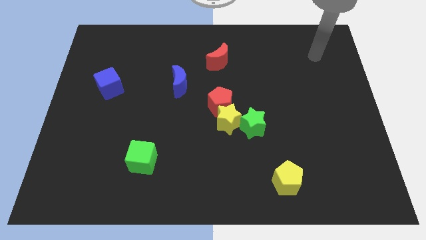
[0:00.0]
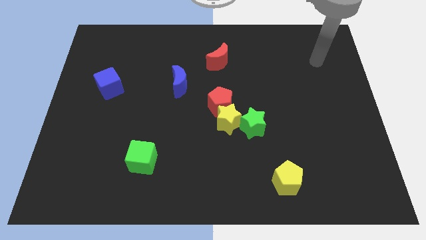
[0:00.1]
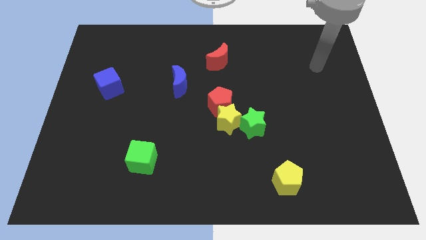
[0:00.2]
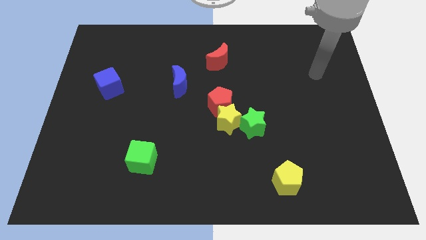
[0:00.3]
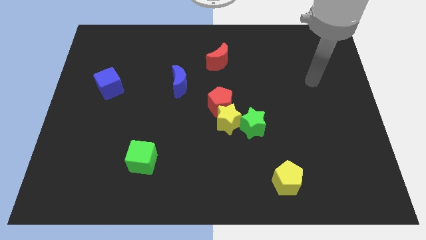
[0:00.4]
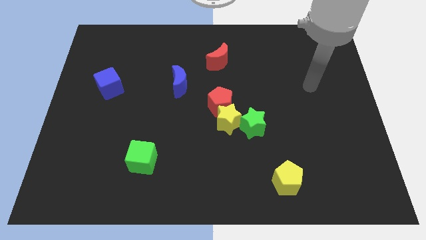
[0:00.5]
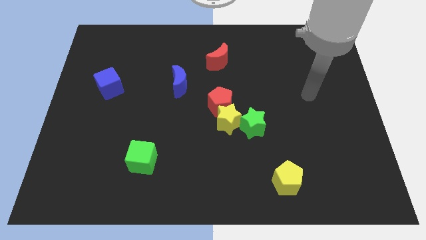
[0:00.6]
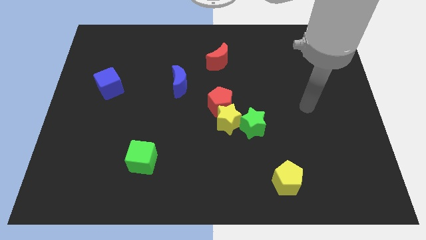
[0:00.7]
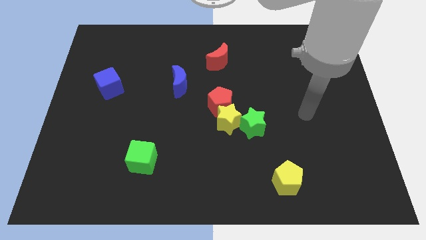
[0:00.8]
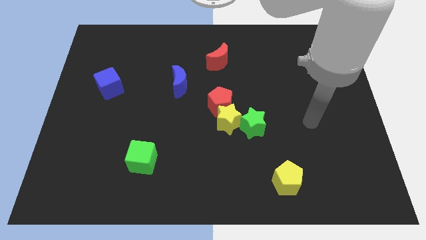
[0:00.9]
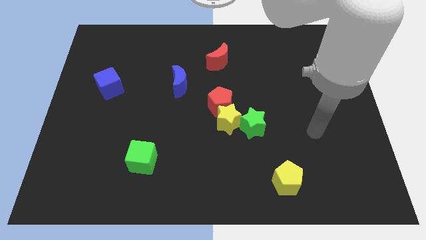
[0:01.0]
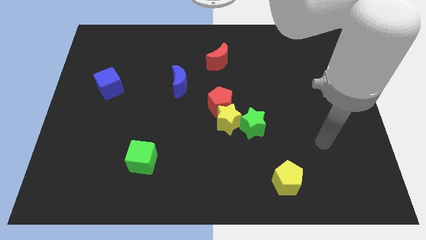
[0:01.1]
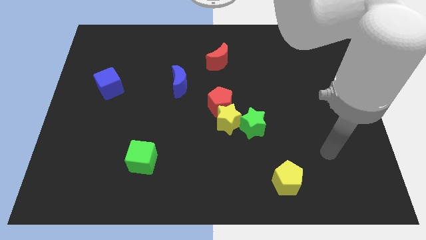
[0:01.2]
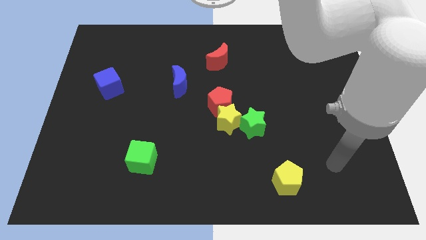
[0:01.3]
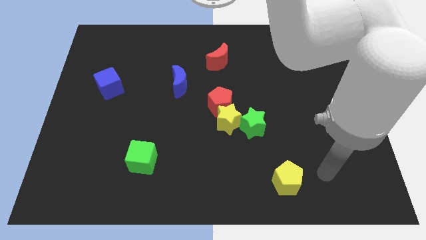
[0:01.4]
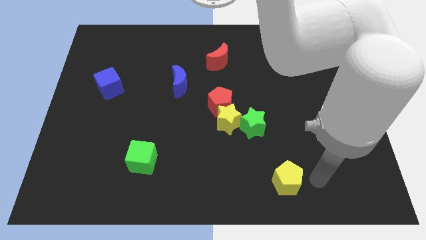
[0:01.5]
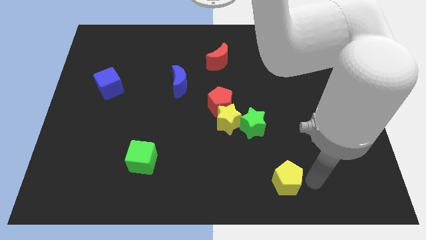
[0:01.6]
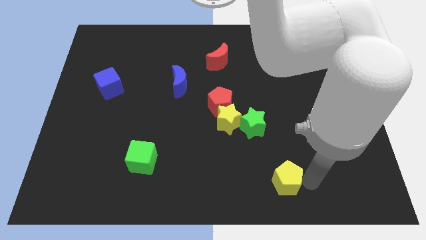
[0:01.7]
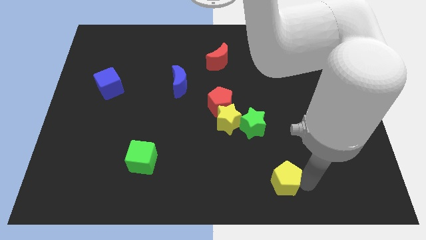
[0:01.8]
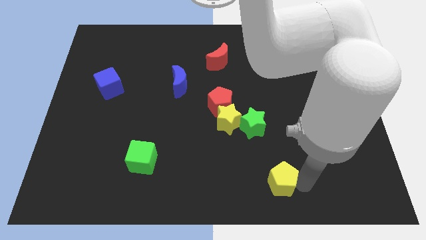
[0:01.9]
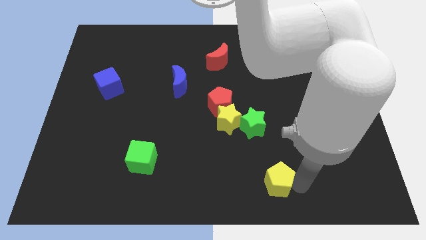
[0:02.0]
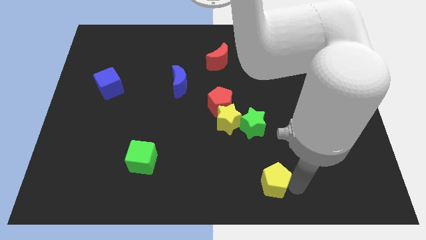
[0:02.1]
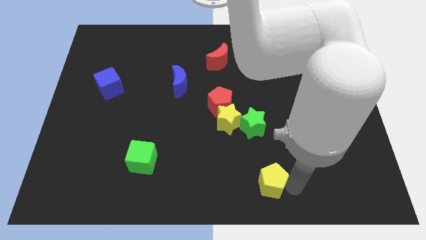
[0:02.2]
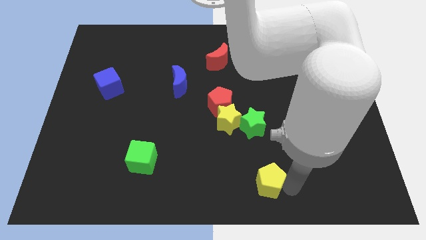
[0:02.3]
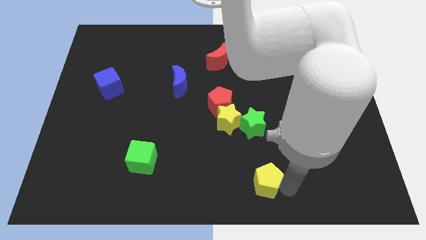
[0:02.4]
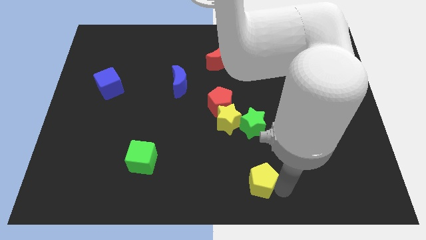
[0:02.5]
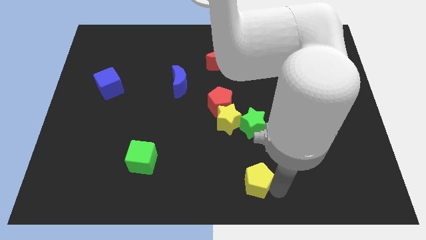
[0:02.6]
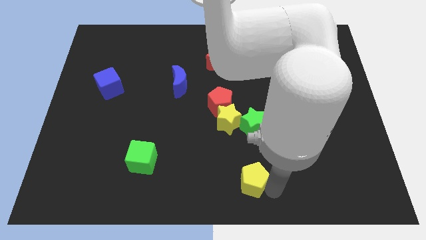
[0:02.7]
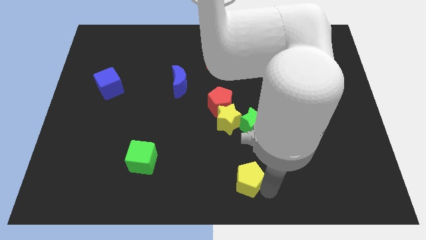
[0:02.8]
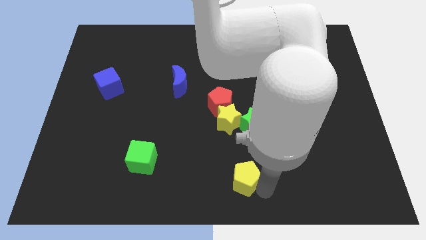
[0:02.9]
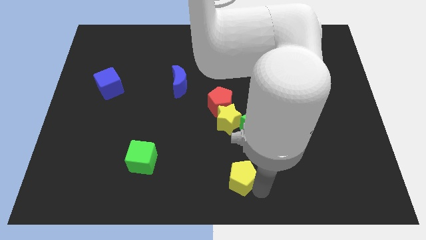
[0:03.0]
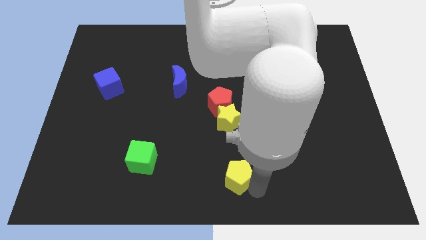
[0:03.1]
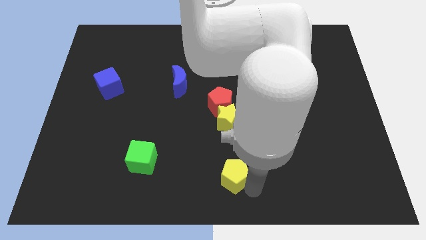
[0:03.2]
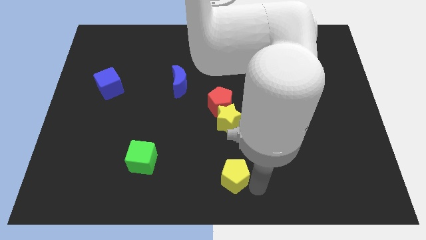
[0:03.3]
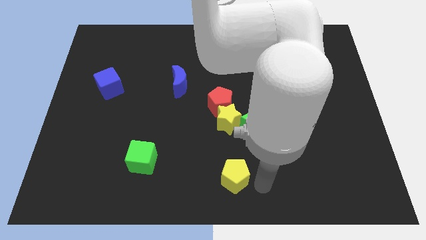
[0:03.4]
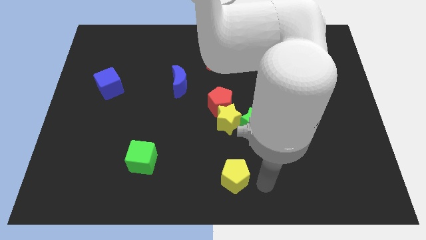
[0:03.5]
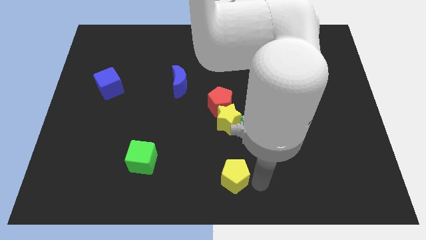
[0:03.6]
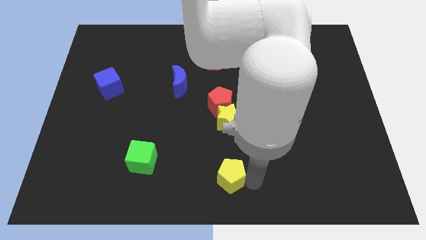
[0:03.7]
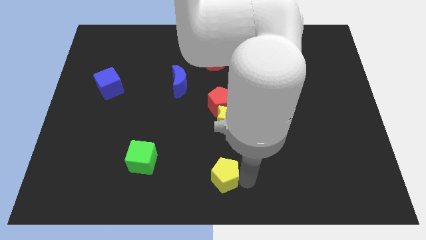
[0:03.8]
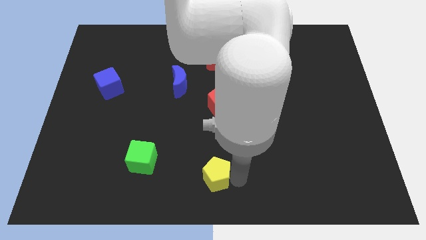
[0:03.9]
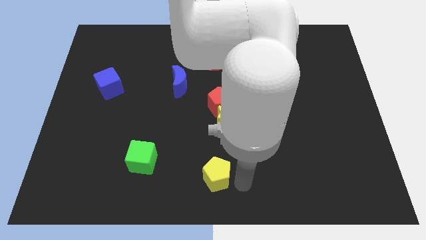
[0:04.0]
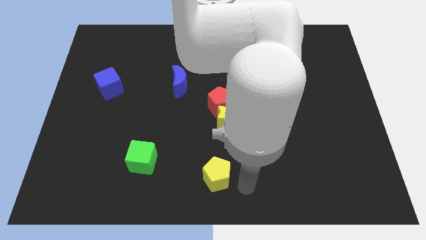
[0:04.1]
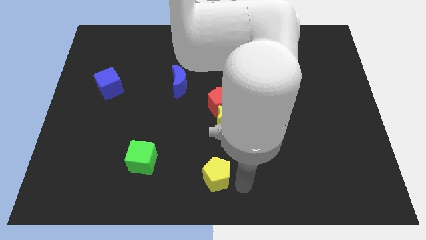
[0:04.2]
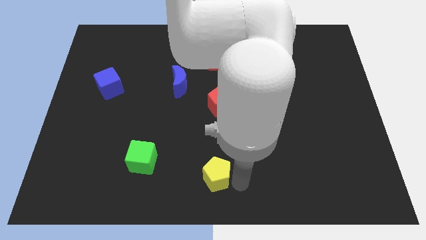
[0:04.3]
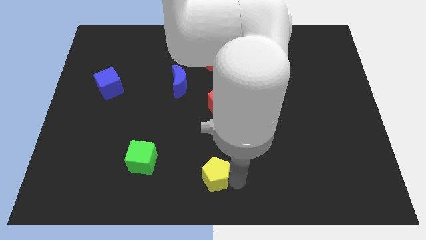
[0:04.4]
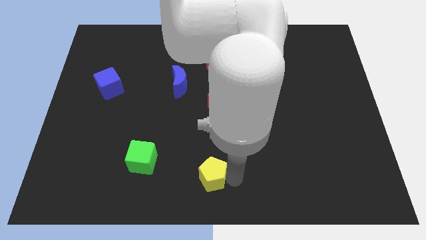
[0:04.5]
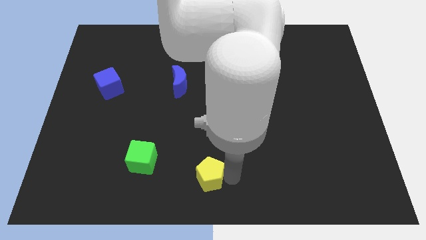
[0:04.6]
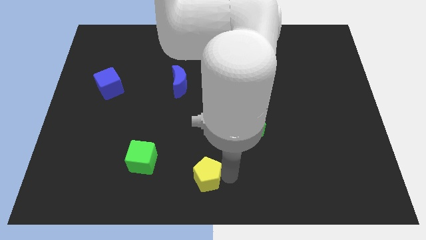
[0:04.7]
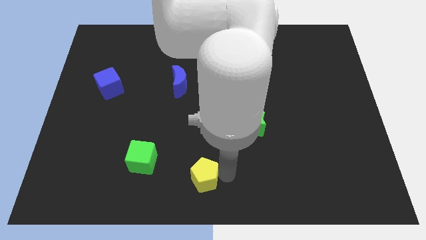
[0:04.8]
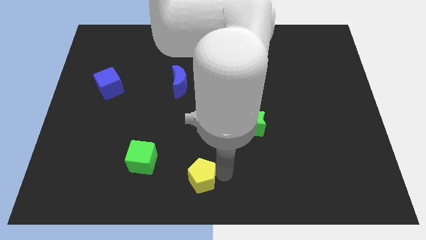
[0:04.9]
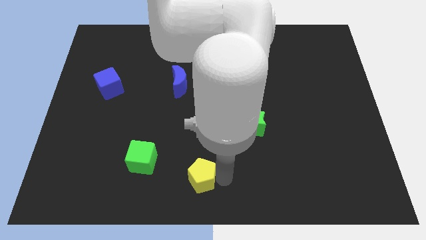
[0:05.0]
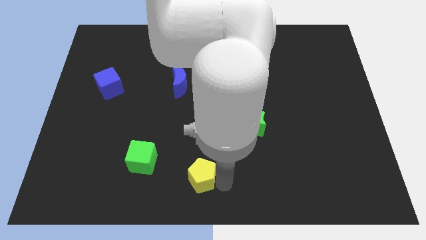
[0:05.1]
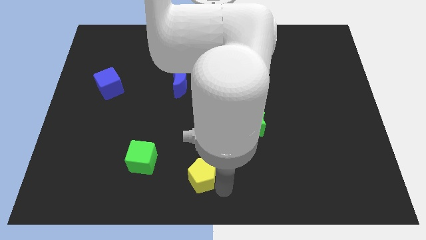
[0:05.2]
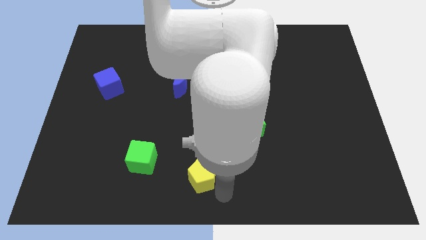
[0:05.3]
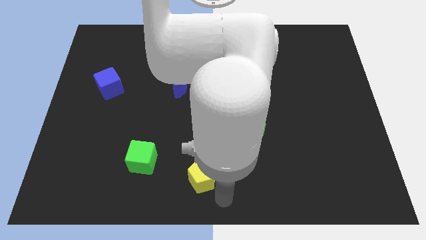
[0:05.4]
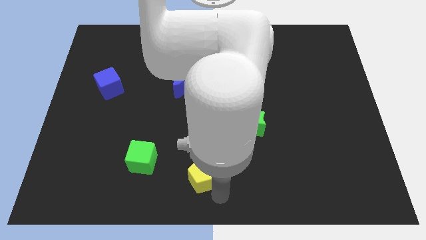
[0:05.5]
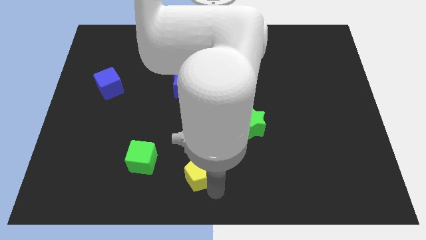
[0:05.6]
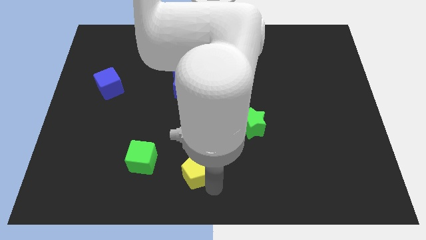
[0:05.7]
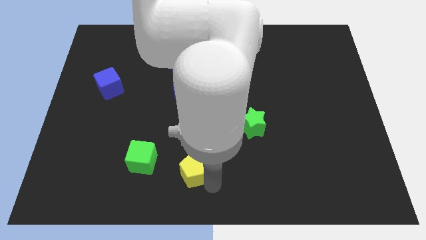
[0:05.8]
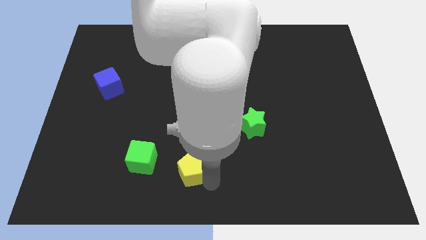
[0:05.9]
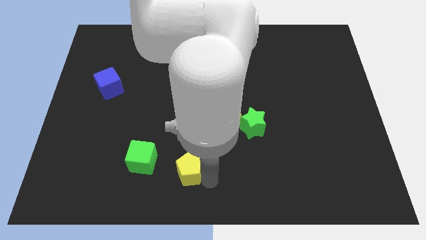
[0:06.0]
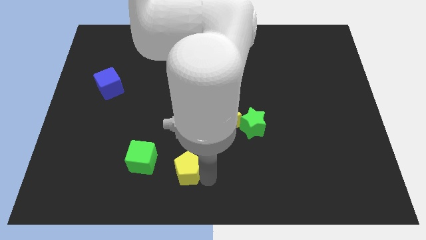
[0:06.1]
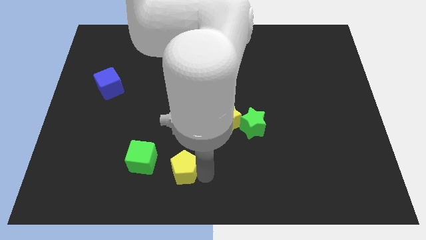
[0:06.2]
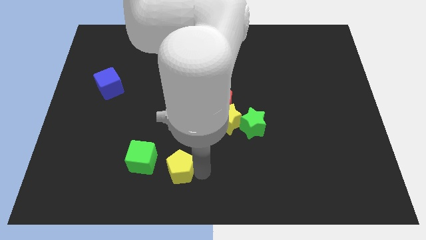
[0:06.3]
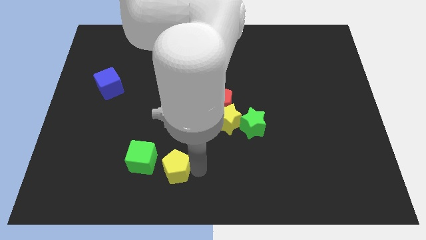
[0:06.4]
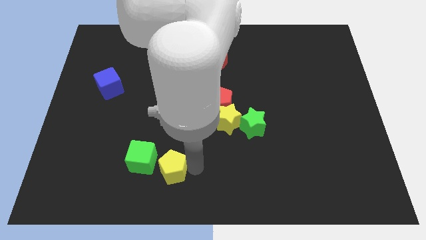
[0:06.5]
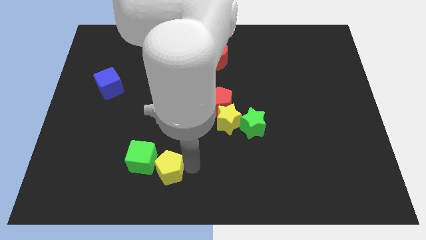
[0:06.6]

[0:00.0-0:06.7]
put the yellow pentagon towards the green cube
